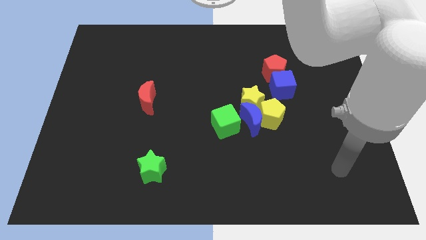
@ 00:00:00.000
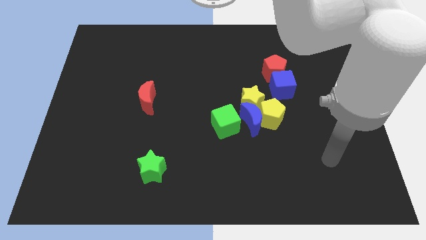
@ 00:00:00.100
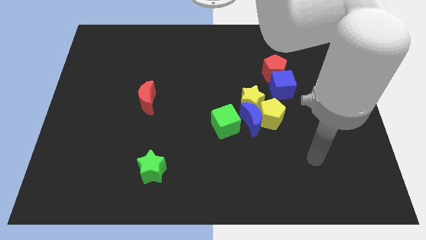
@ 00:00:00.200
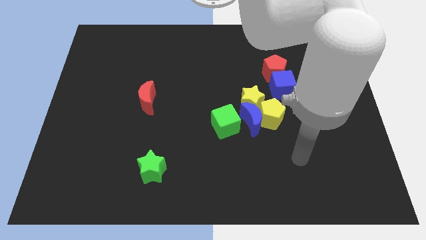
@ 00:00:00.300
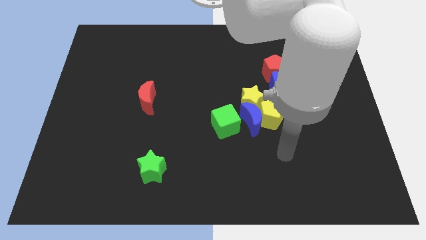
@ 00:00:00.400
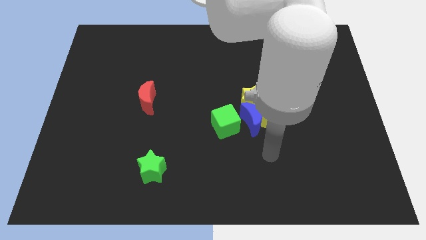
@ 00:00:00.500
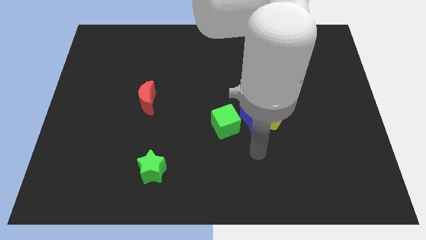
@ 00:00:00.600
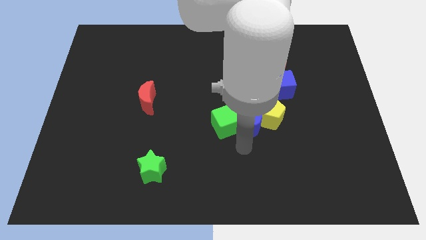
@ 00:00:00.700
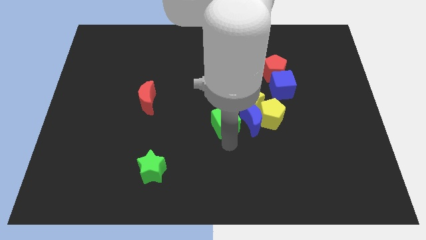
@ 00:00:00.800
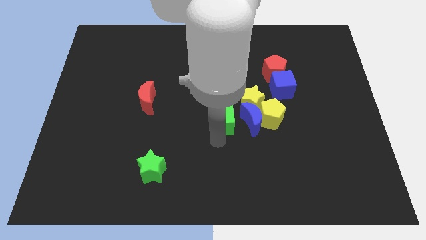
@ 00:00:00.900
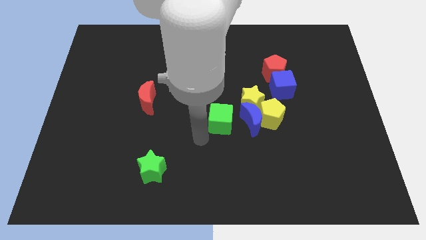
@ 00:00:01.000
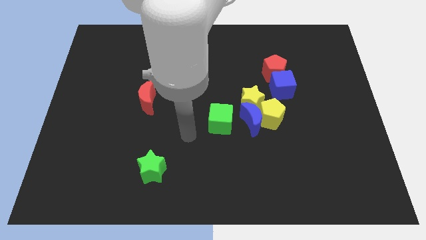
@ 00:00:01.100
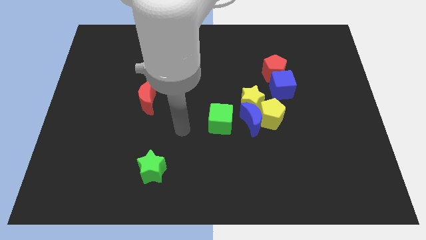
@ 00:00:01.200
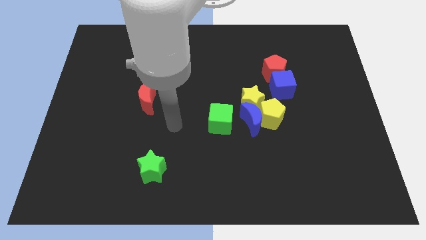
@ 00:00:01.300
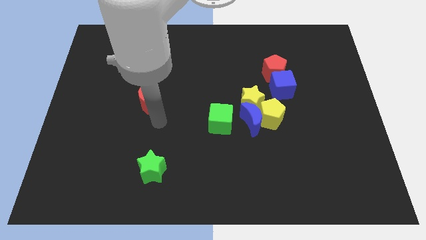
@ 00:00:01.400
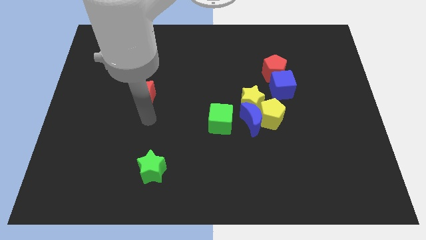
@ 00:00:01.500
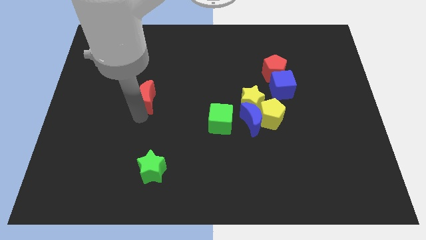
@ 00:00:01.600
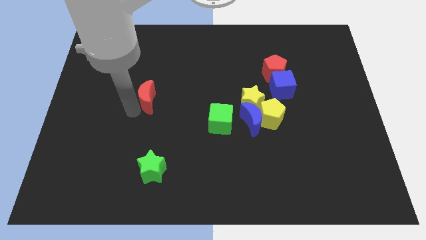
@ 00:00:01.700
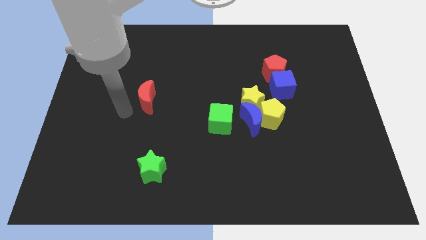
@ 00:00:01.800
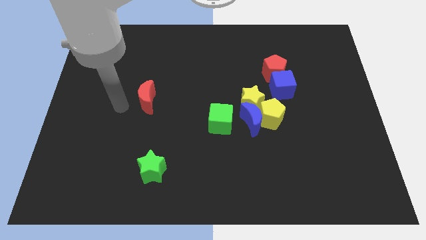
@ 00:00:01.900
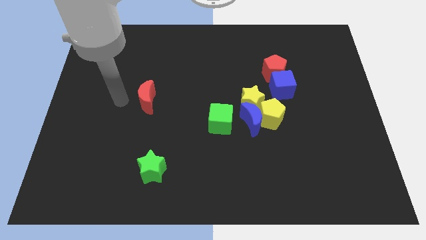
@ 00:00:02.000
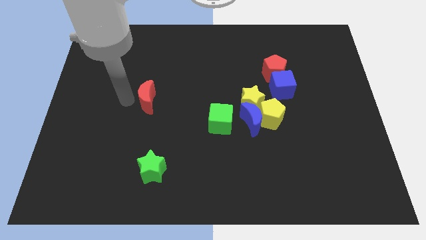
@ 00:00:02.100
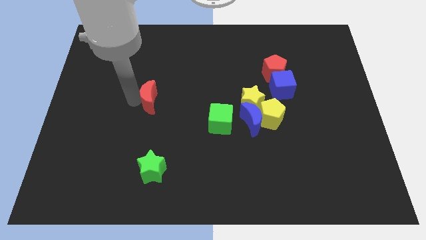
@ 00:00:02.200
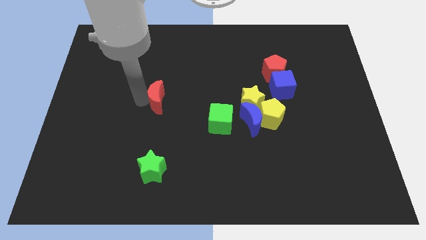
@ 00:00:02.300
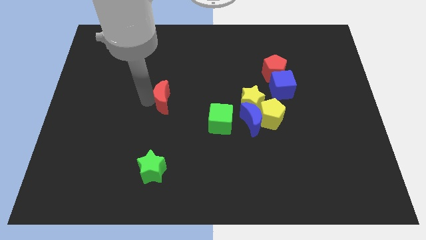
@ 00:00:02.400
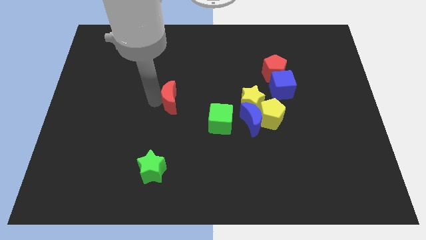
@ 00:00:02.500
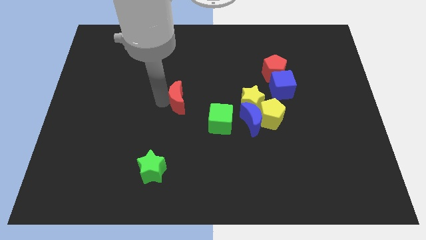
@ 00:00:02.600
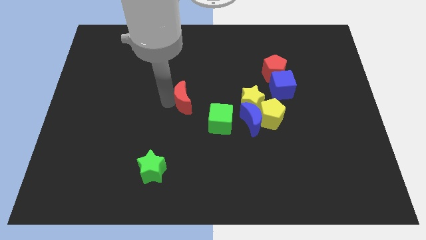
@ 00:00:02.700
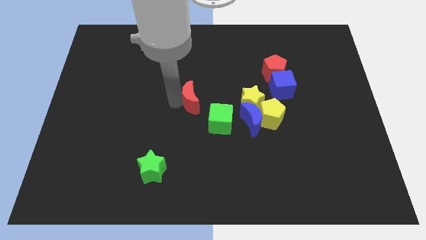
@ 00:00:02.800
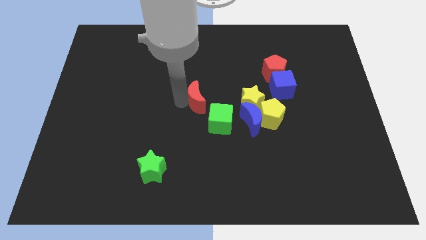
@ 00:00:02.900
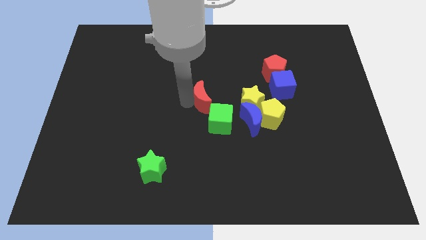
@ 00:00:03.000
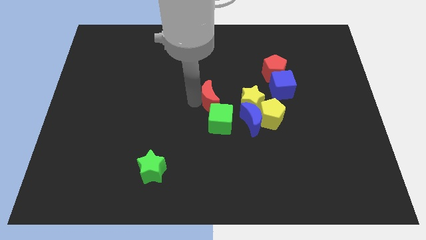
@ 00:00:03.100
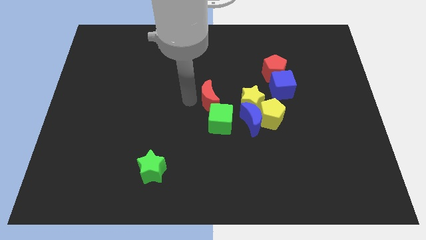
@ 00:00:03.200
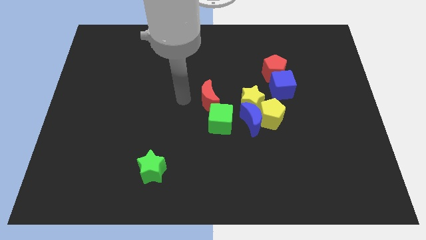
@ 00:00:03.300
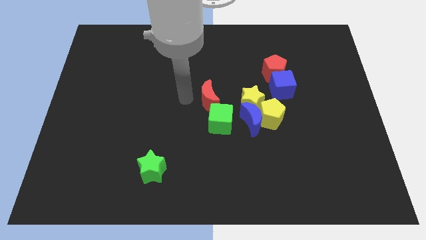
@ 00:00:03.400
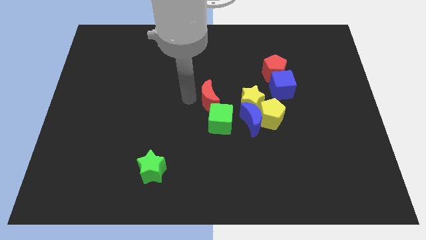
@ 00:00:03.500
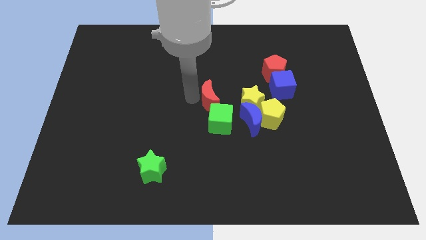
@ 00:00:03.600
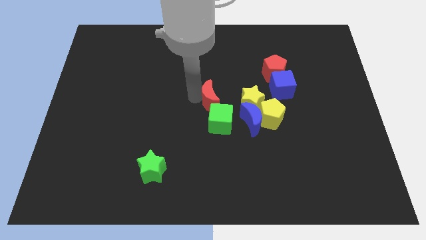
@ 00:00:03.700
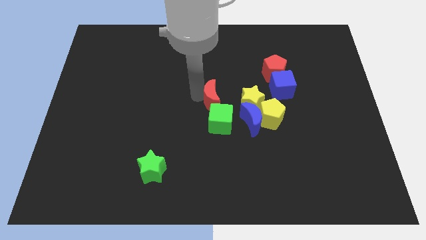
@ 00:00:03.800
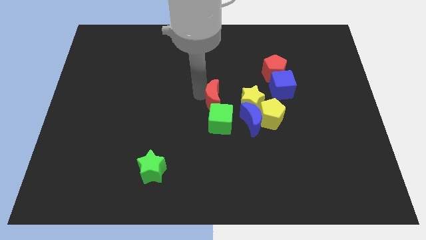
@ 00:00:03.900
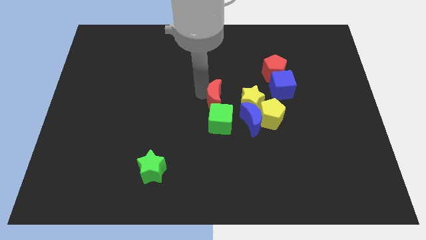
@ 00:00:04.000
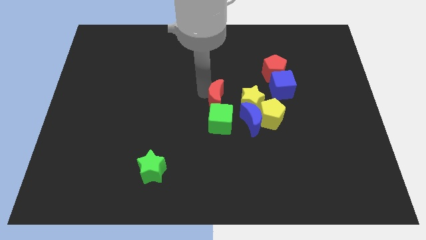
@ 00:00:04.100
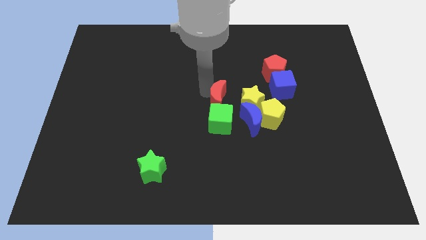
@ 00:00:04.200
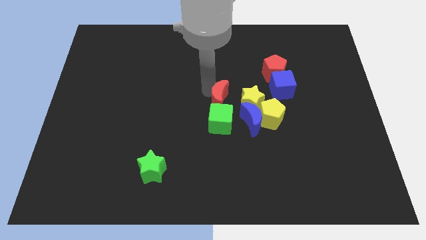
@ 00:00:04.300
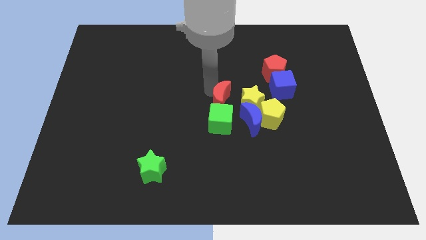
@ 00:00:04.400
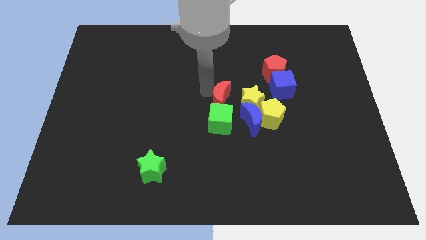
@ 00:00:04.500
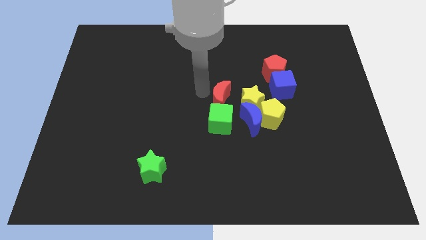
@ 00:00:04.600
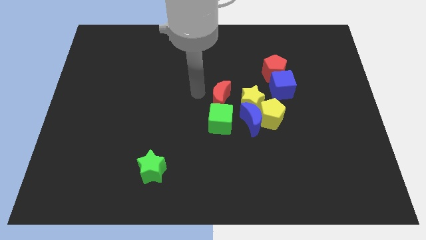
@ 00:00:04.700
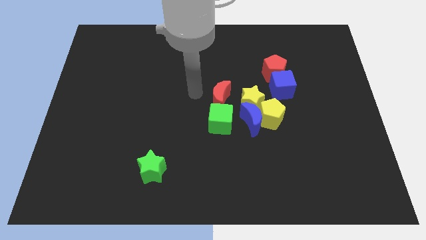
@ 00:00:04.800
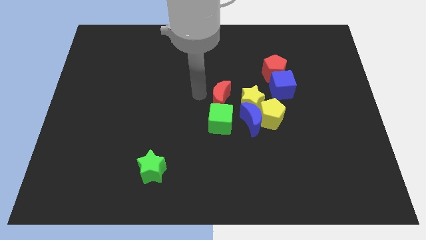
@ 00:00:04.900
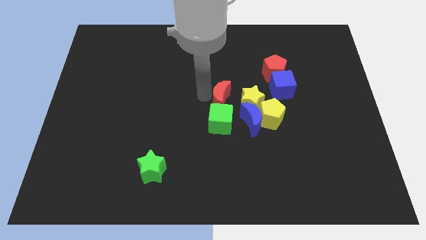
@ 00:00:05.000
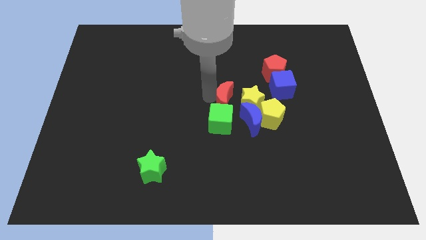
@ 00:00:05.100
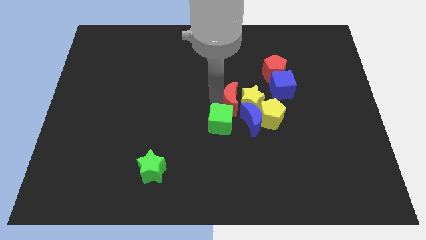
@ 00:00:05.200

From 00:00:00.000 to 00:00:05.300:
put the red moon next to the yellow star

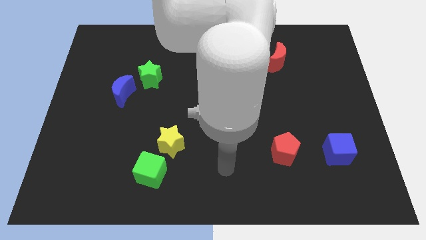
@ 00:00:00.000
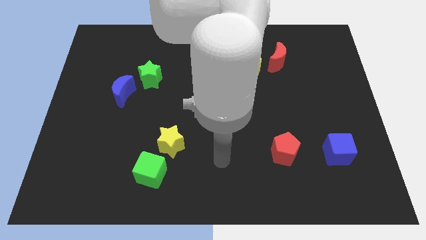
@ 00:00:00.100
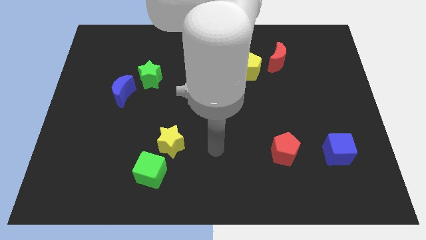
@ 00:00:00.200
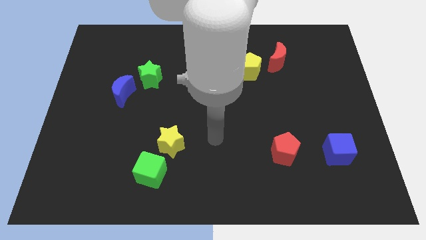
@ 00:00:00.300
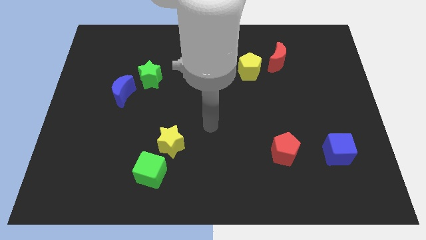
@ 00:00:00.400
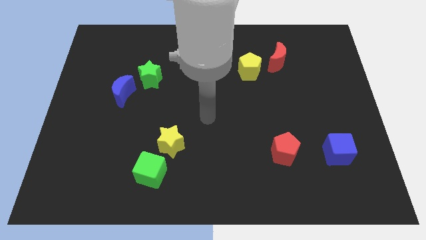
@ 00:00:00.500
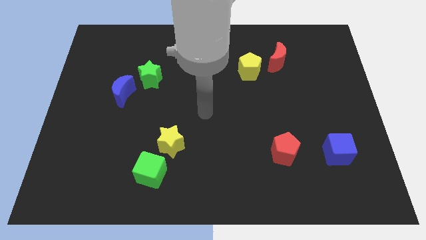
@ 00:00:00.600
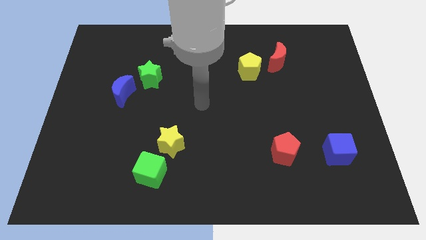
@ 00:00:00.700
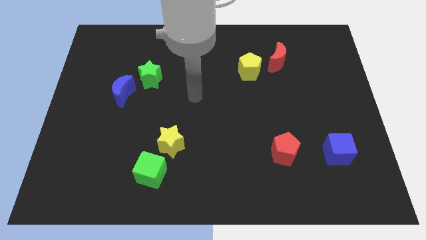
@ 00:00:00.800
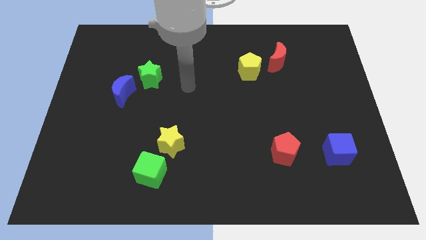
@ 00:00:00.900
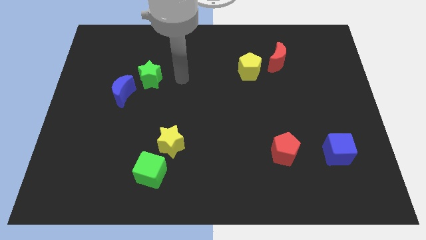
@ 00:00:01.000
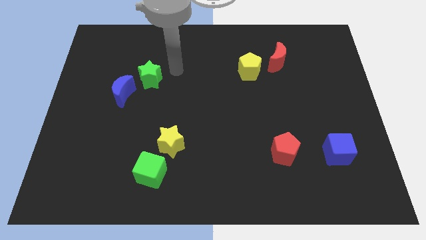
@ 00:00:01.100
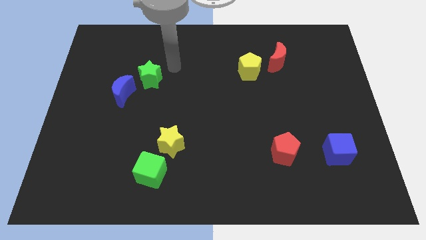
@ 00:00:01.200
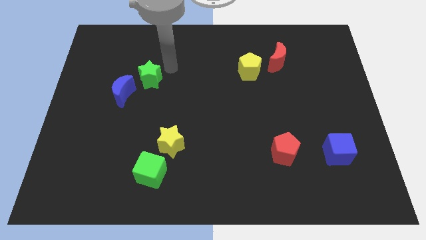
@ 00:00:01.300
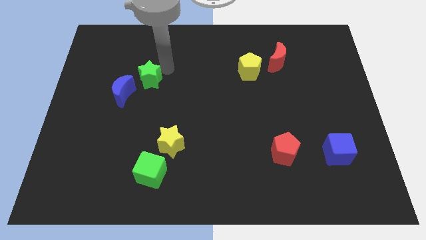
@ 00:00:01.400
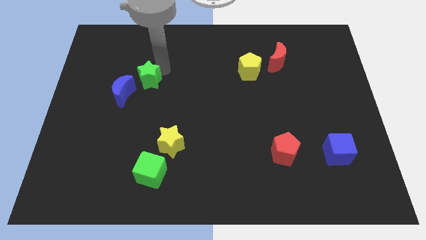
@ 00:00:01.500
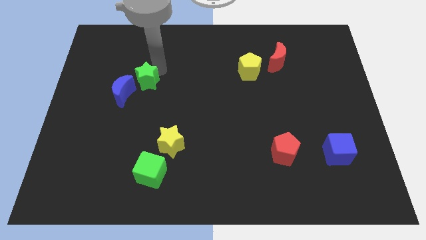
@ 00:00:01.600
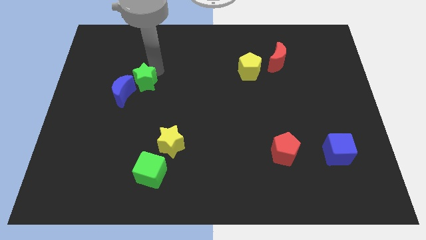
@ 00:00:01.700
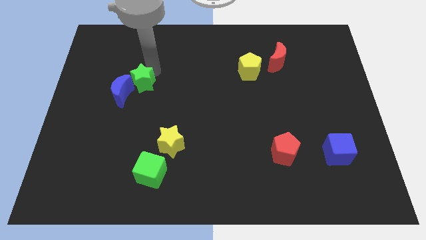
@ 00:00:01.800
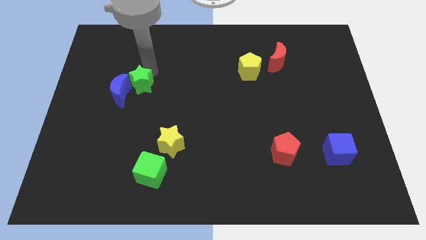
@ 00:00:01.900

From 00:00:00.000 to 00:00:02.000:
move the green star towards the blue moon
